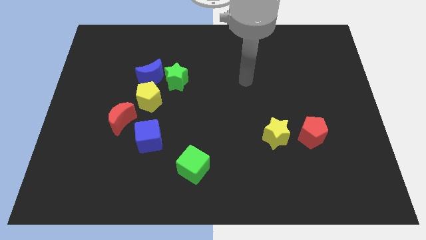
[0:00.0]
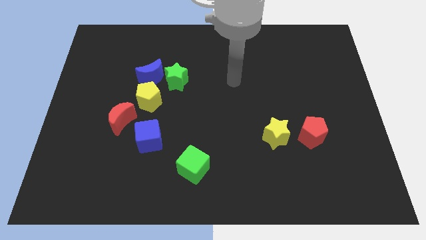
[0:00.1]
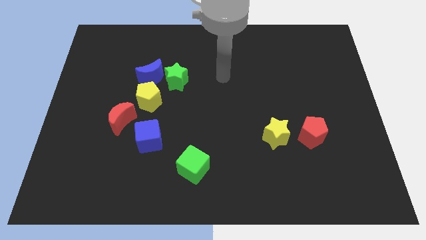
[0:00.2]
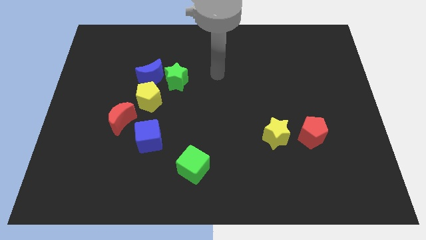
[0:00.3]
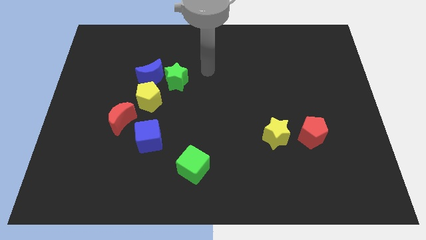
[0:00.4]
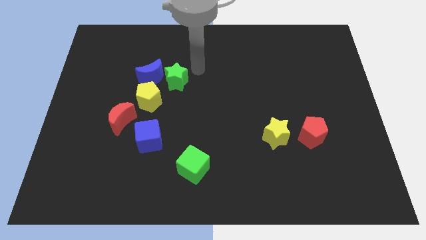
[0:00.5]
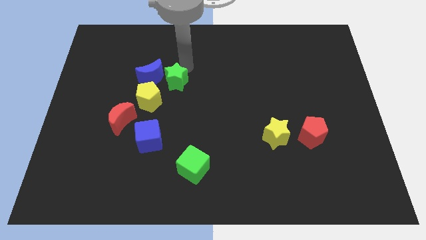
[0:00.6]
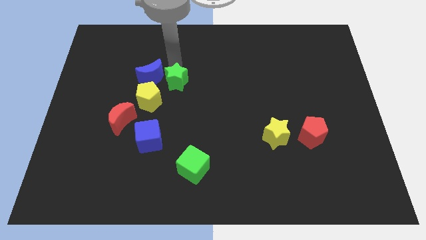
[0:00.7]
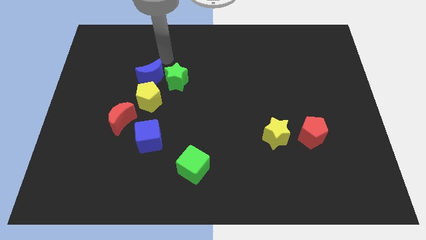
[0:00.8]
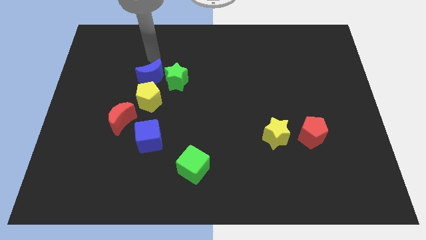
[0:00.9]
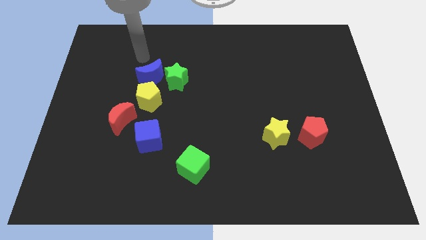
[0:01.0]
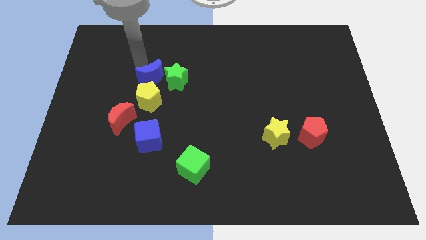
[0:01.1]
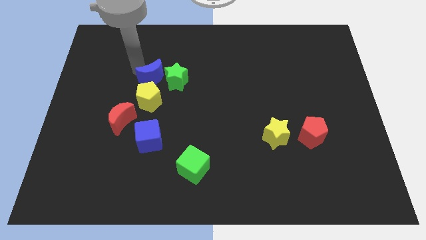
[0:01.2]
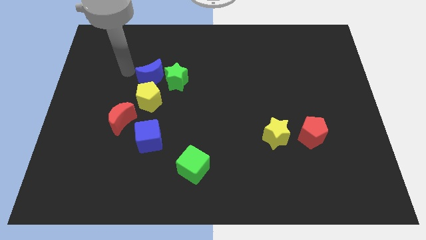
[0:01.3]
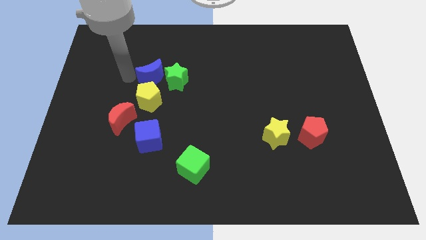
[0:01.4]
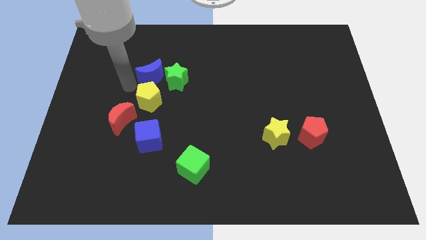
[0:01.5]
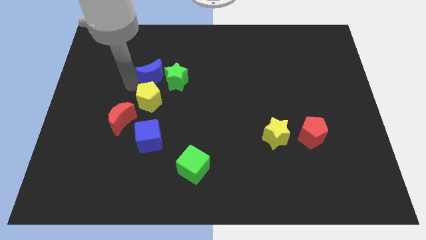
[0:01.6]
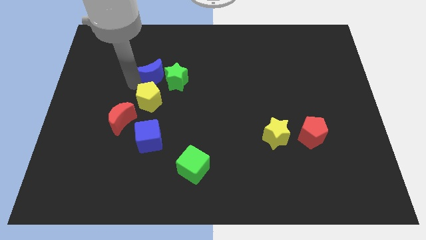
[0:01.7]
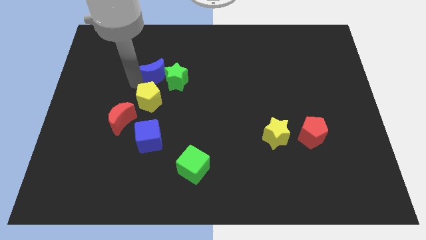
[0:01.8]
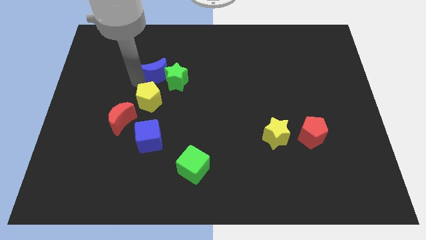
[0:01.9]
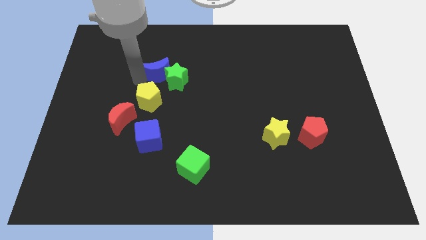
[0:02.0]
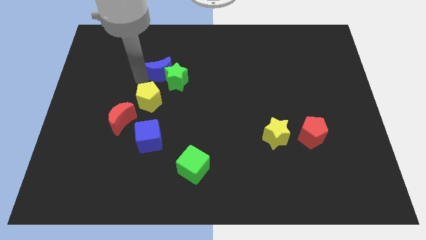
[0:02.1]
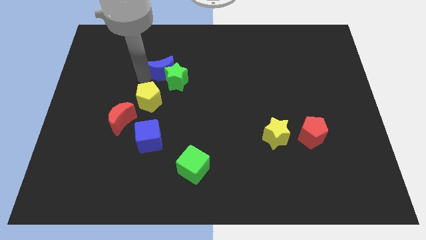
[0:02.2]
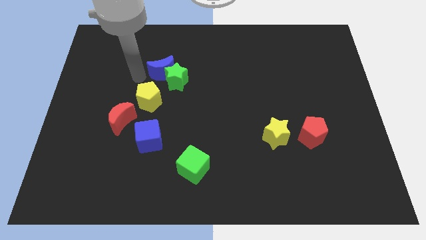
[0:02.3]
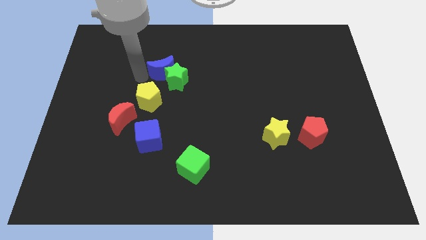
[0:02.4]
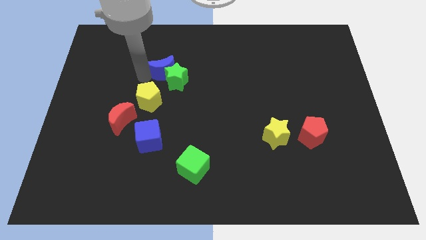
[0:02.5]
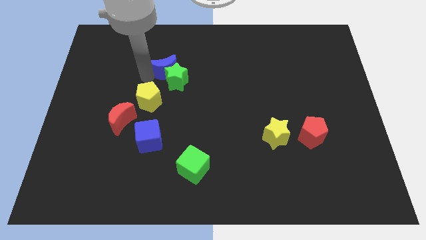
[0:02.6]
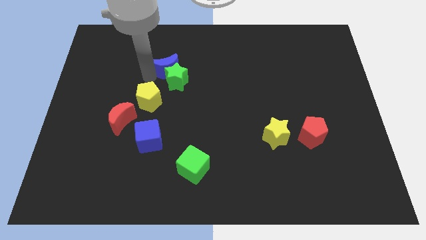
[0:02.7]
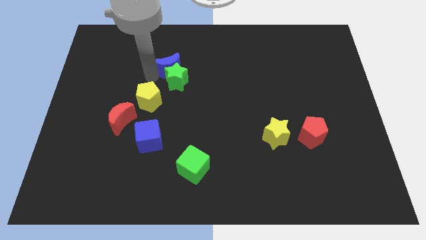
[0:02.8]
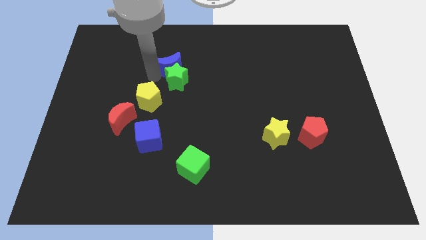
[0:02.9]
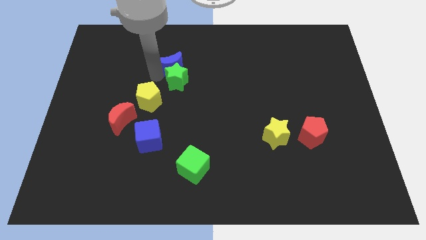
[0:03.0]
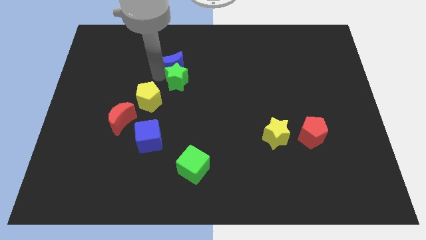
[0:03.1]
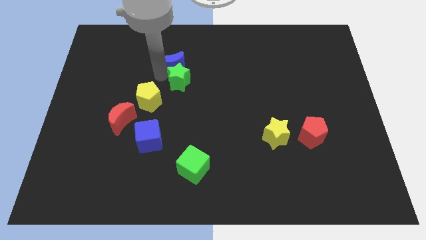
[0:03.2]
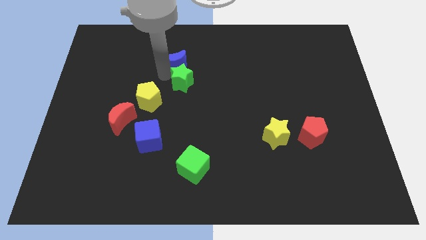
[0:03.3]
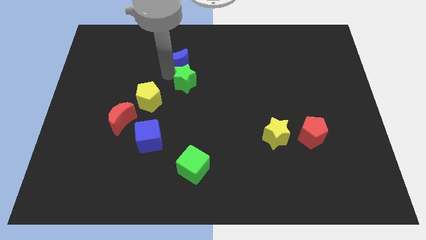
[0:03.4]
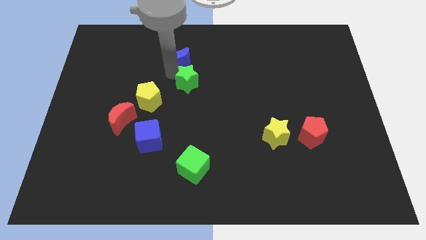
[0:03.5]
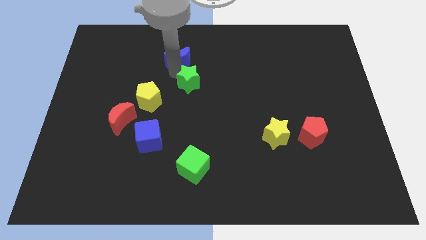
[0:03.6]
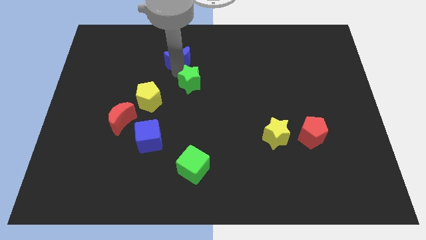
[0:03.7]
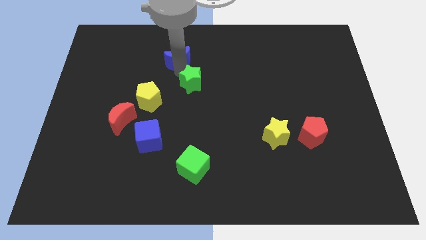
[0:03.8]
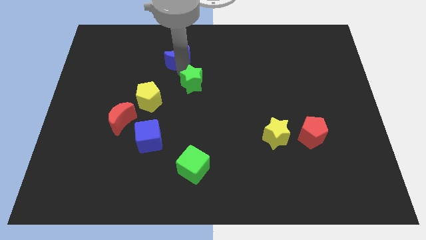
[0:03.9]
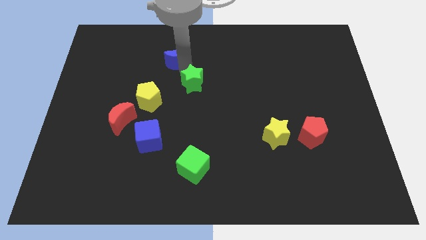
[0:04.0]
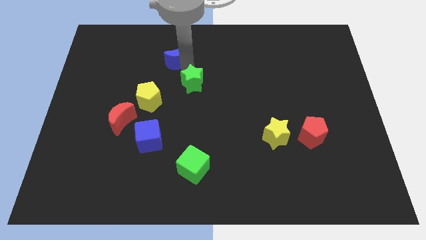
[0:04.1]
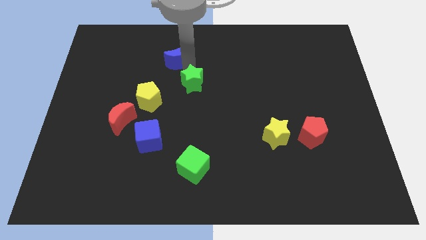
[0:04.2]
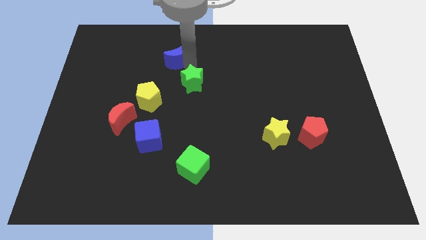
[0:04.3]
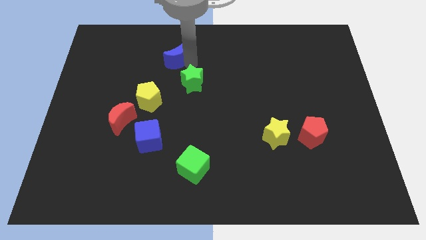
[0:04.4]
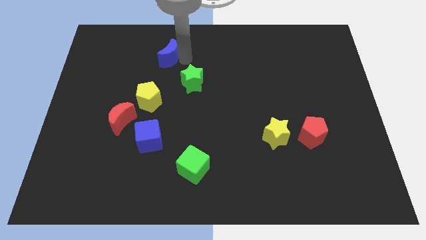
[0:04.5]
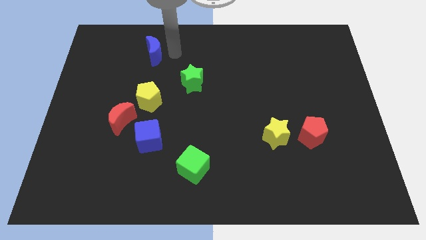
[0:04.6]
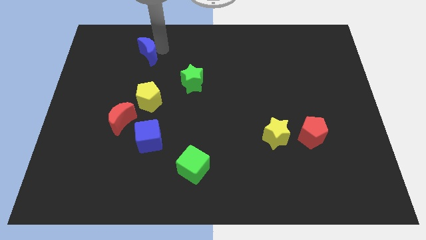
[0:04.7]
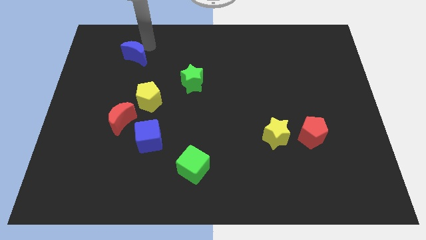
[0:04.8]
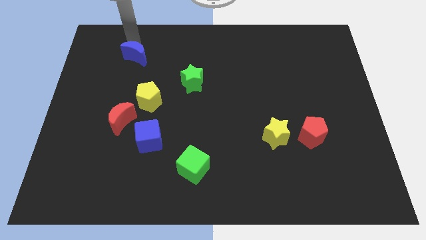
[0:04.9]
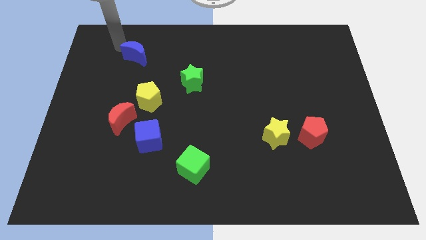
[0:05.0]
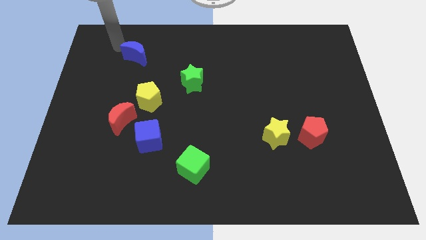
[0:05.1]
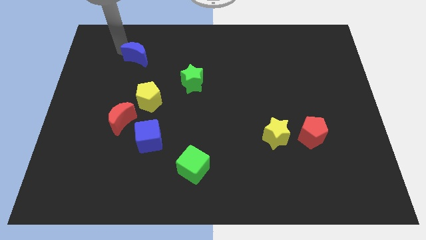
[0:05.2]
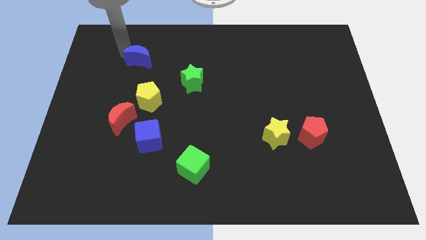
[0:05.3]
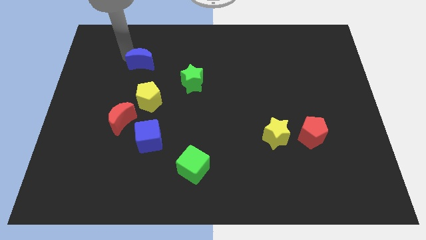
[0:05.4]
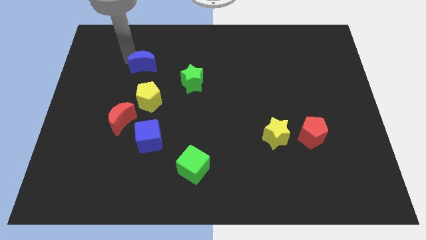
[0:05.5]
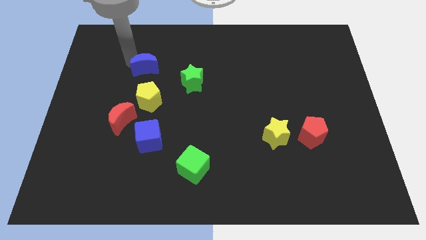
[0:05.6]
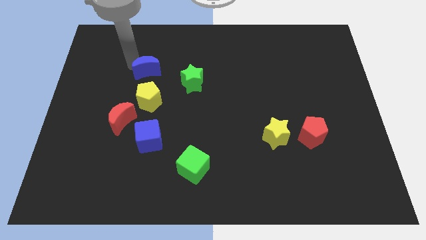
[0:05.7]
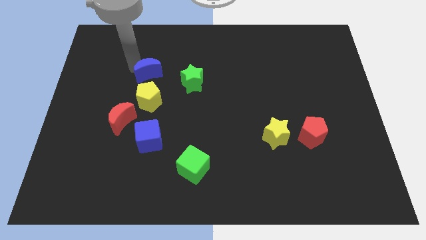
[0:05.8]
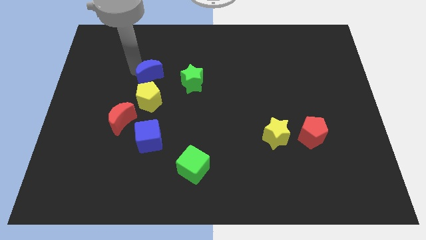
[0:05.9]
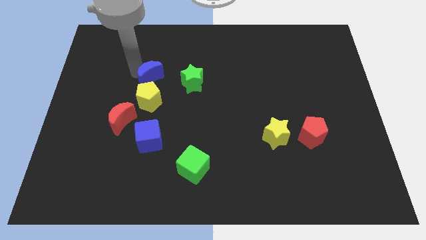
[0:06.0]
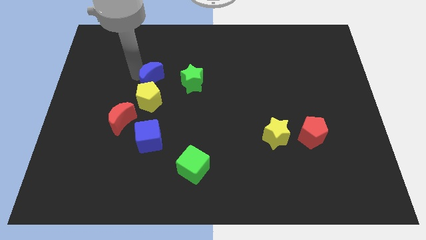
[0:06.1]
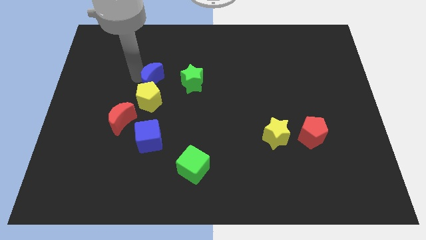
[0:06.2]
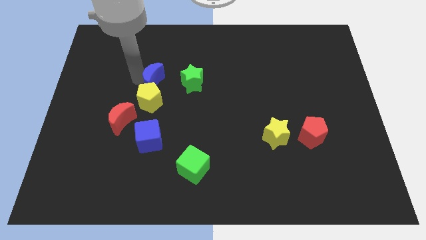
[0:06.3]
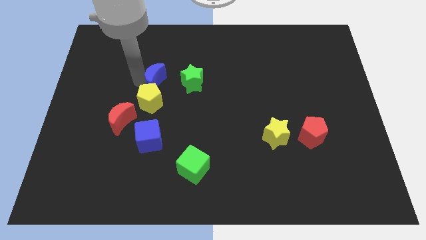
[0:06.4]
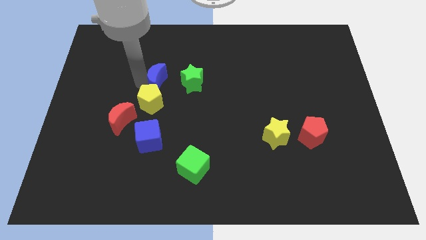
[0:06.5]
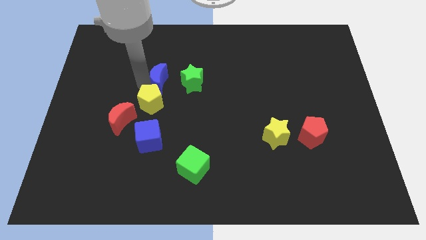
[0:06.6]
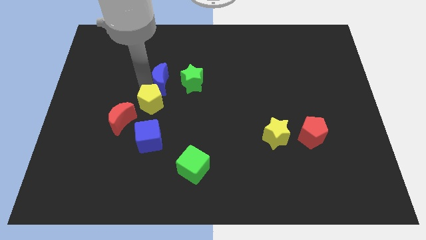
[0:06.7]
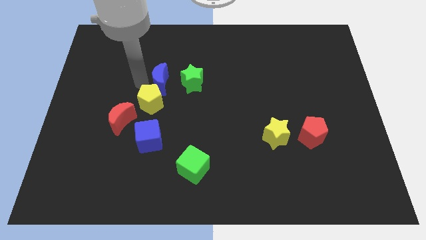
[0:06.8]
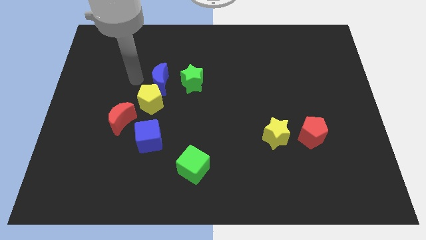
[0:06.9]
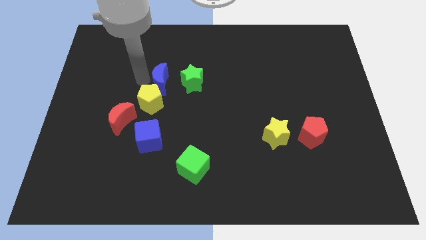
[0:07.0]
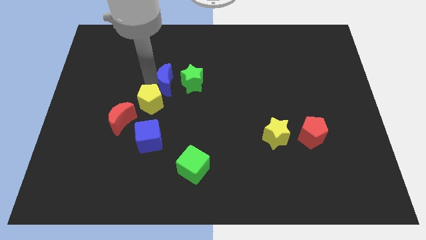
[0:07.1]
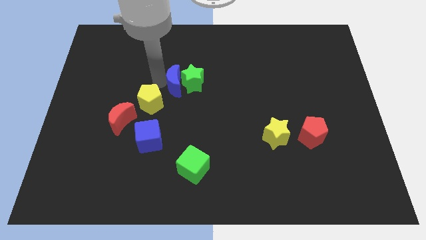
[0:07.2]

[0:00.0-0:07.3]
slide the blue moon to the center
